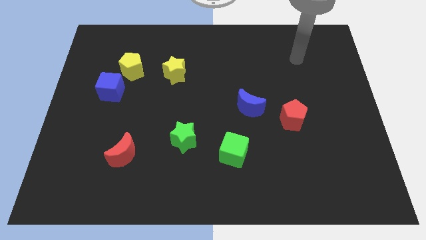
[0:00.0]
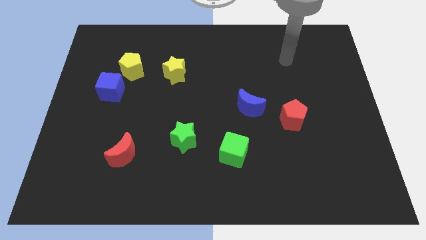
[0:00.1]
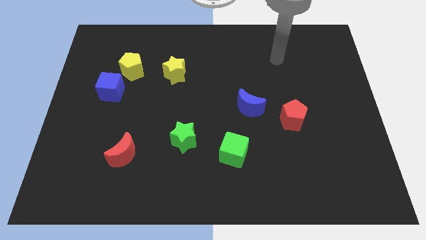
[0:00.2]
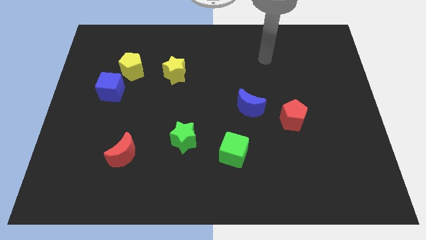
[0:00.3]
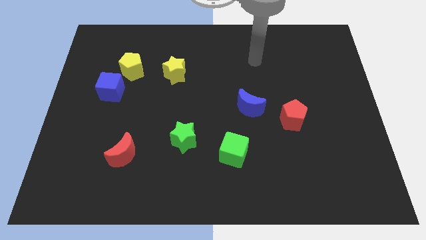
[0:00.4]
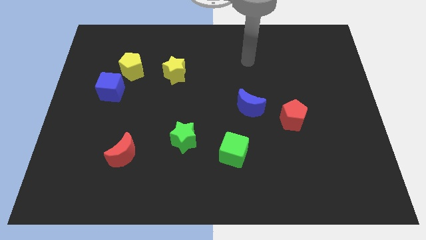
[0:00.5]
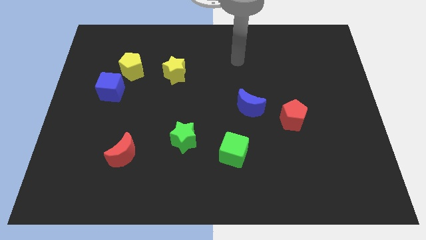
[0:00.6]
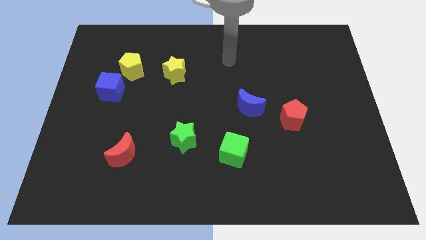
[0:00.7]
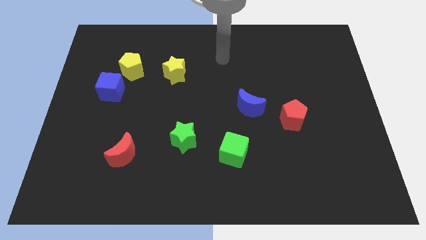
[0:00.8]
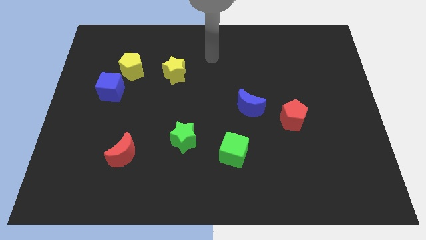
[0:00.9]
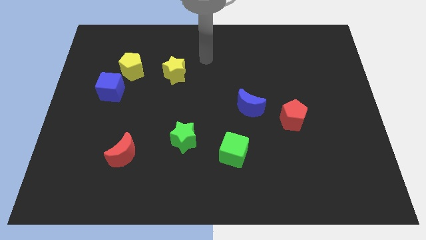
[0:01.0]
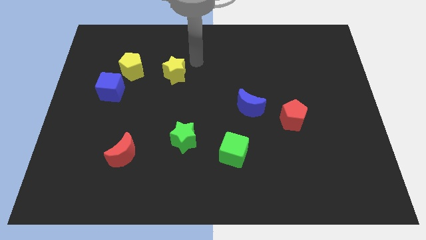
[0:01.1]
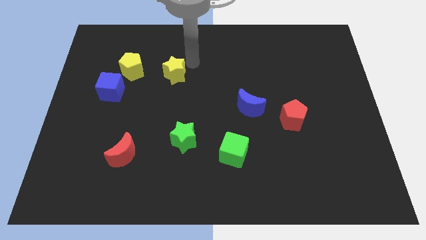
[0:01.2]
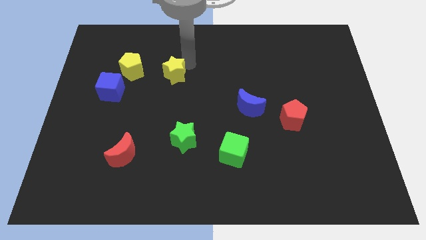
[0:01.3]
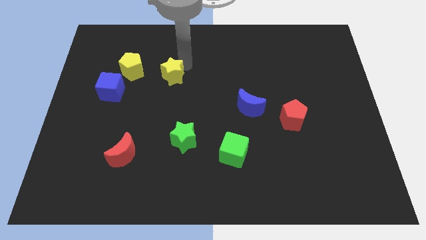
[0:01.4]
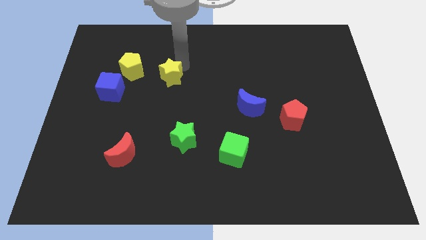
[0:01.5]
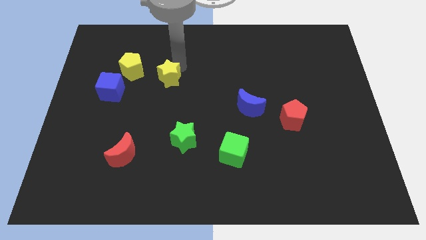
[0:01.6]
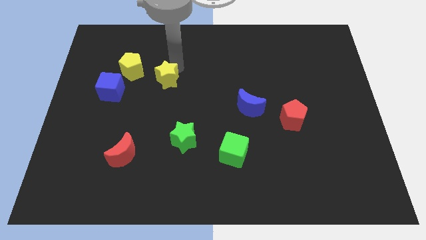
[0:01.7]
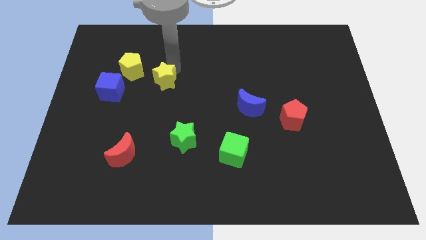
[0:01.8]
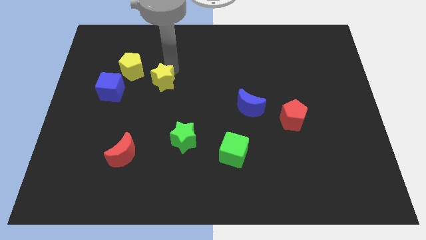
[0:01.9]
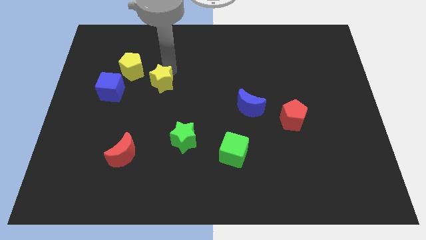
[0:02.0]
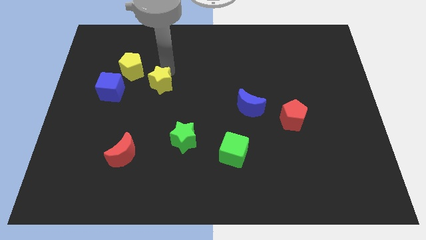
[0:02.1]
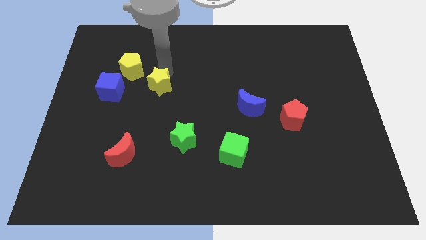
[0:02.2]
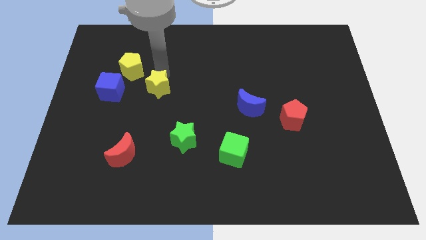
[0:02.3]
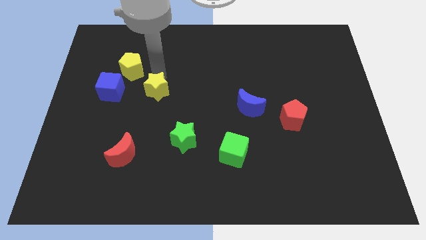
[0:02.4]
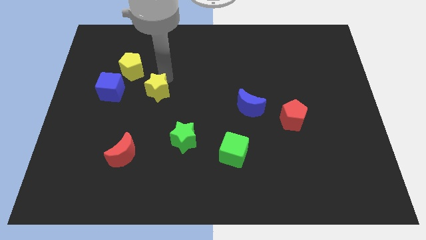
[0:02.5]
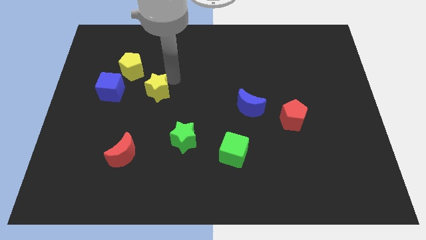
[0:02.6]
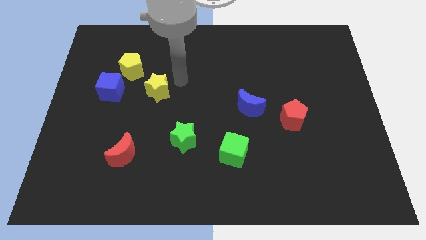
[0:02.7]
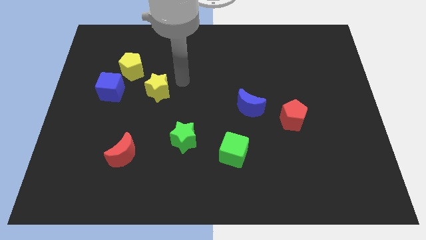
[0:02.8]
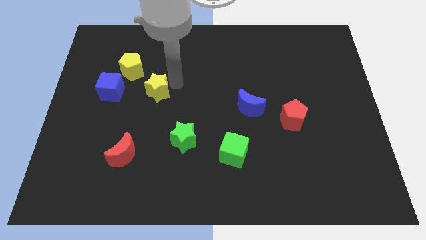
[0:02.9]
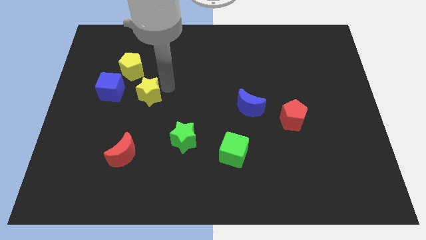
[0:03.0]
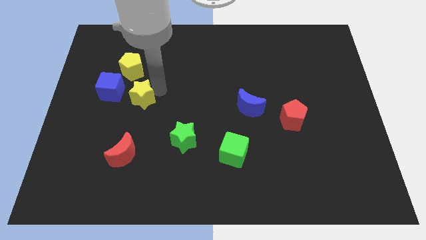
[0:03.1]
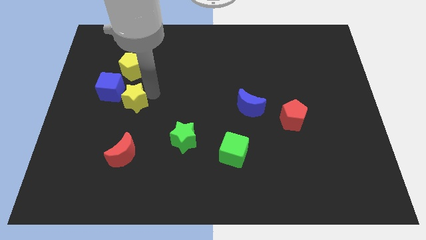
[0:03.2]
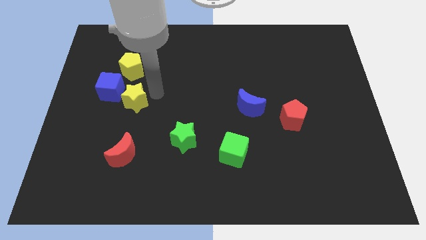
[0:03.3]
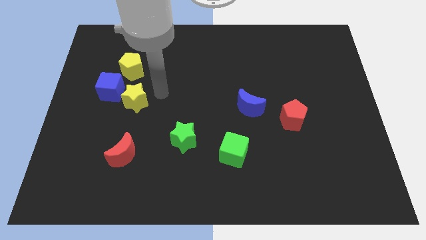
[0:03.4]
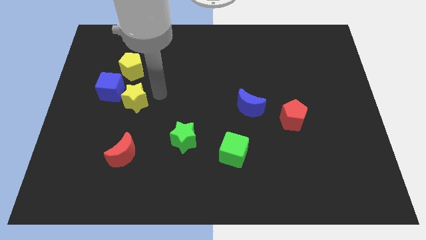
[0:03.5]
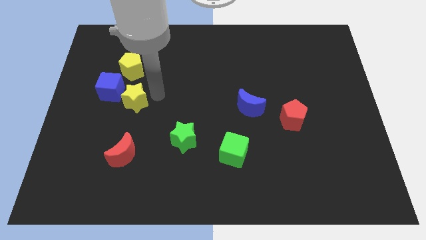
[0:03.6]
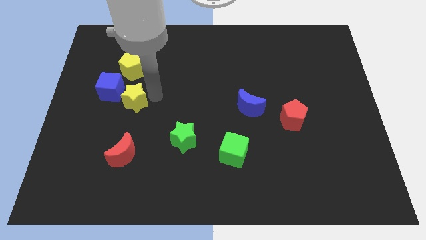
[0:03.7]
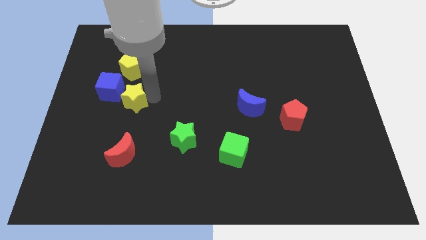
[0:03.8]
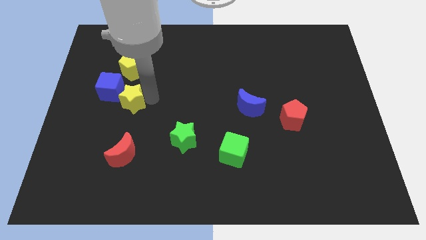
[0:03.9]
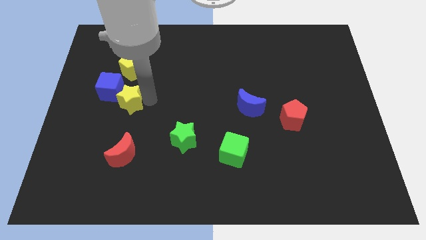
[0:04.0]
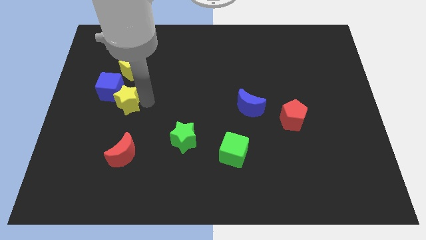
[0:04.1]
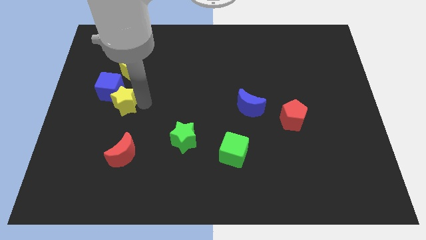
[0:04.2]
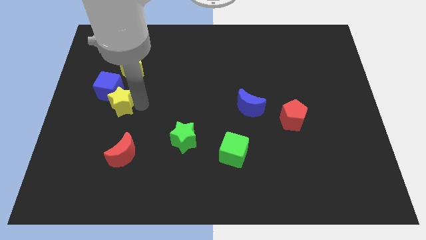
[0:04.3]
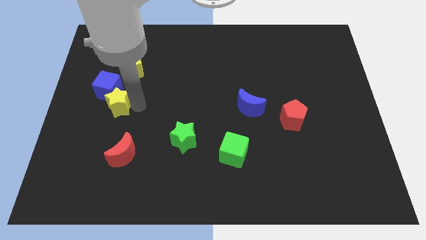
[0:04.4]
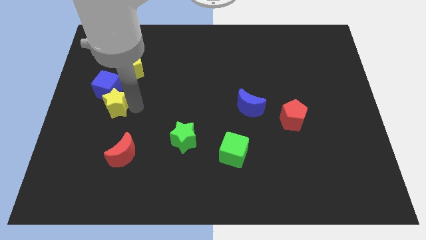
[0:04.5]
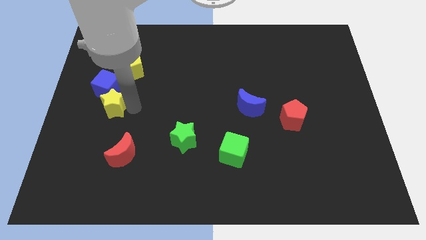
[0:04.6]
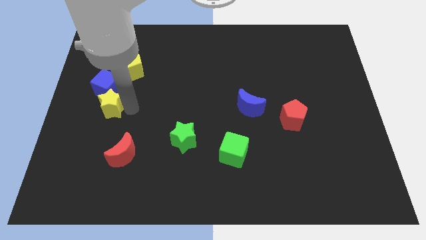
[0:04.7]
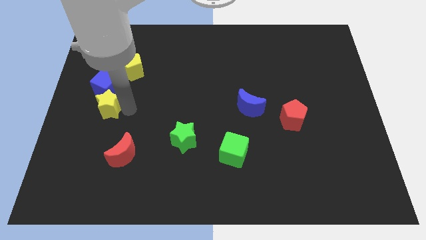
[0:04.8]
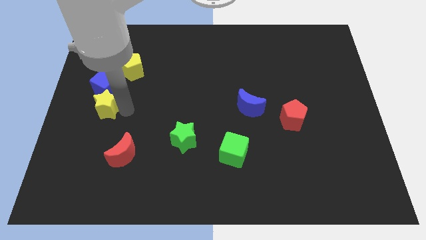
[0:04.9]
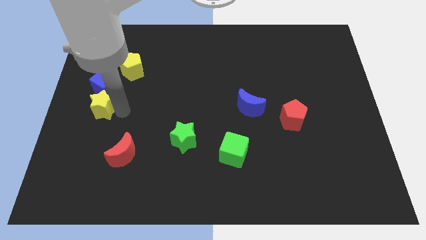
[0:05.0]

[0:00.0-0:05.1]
put the yellow star to the center left

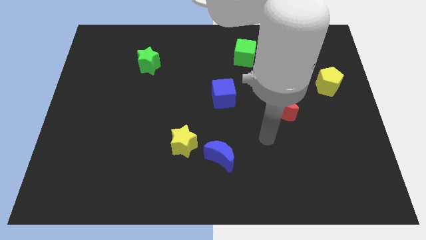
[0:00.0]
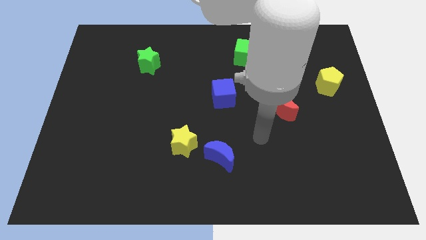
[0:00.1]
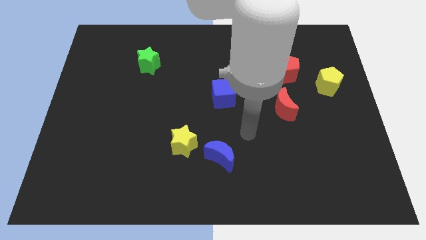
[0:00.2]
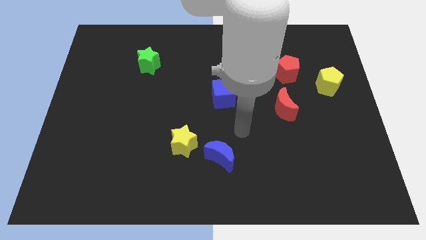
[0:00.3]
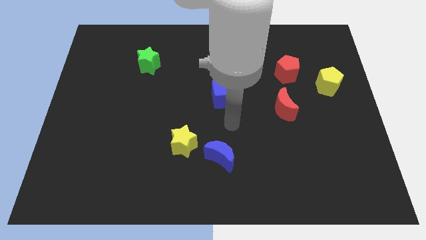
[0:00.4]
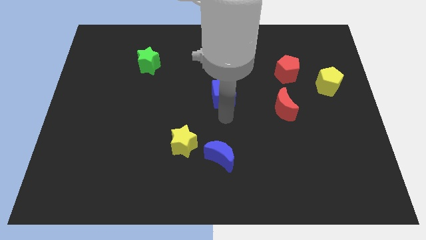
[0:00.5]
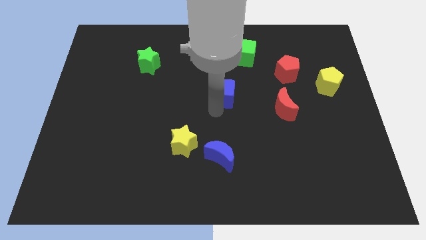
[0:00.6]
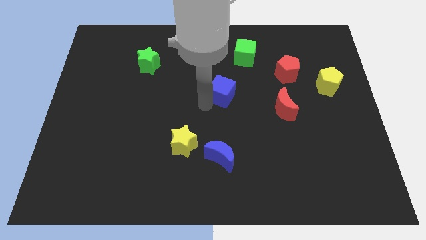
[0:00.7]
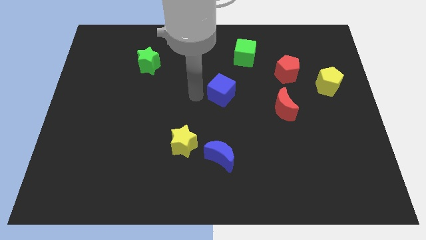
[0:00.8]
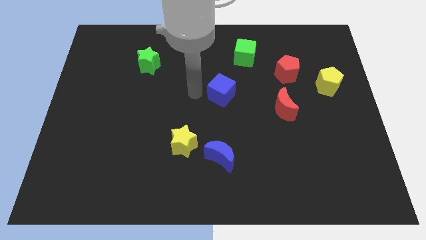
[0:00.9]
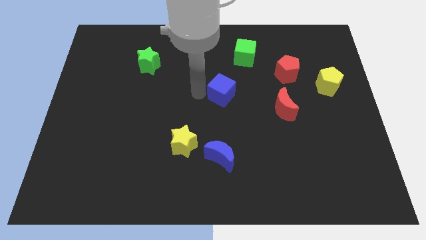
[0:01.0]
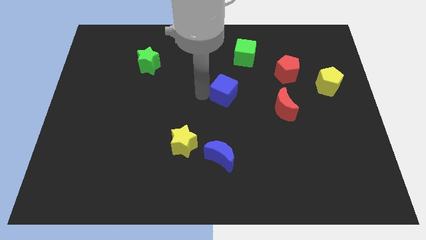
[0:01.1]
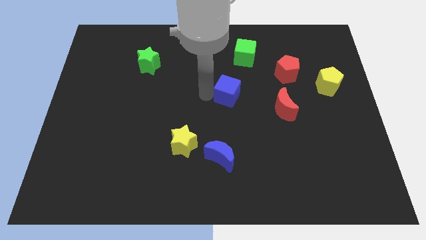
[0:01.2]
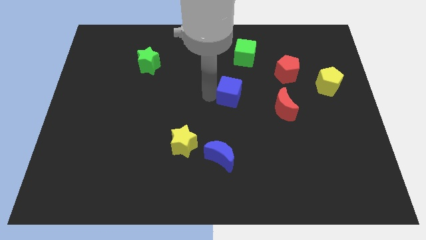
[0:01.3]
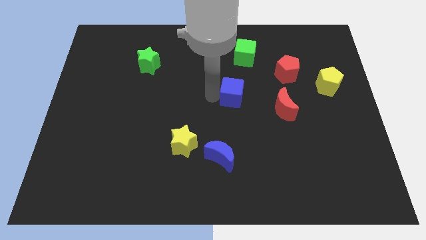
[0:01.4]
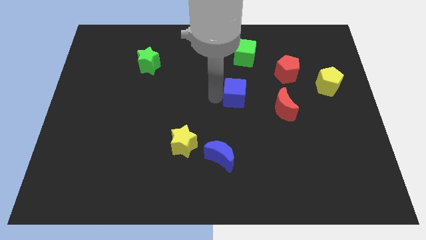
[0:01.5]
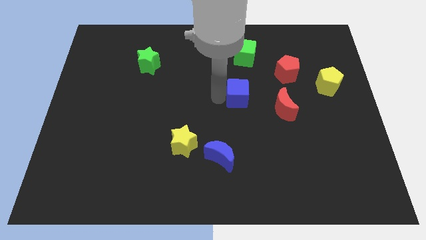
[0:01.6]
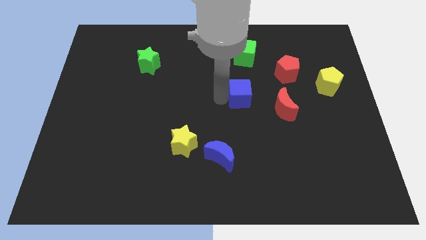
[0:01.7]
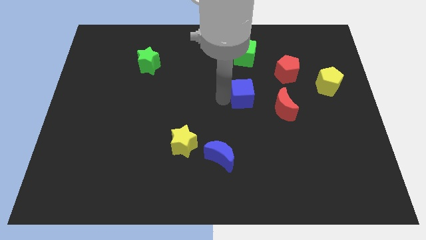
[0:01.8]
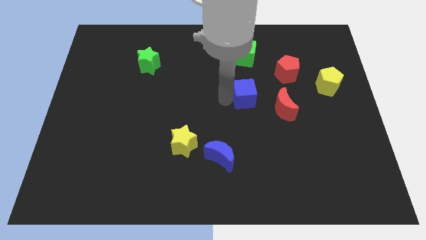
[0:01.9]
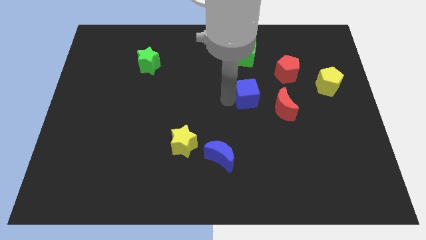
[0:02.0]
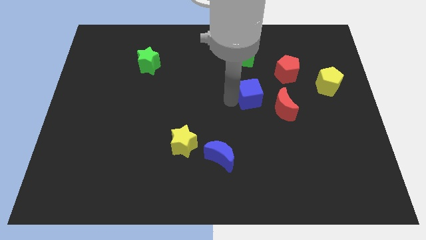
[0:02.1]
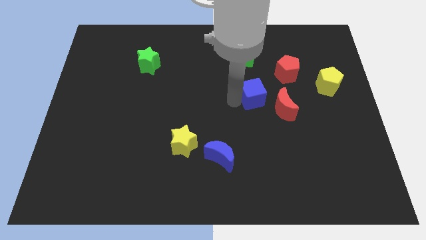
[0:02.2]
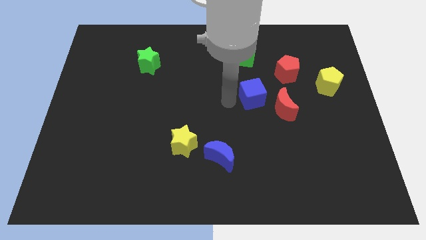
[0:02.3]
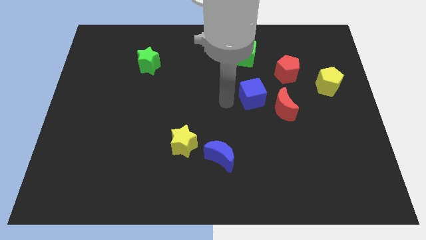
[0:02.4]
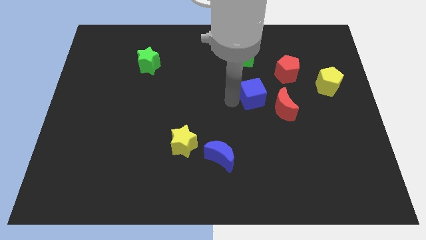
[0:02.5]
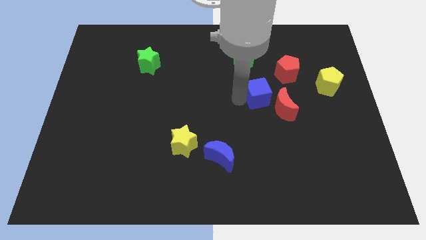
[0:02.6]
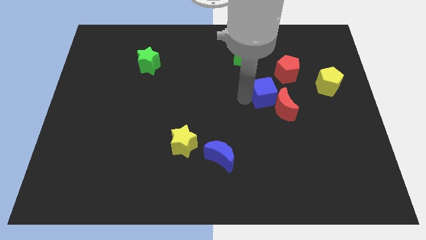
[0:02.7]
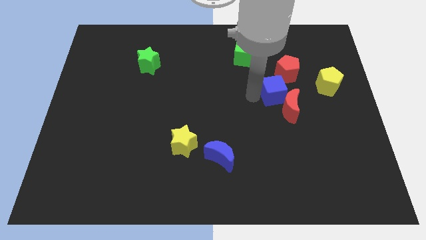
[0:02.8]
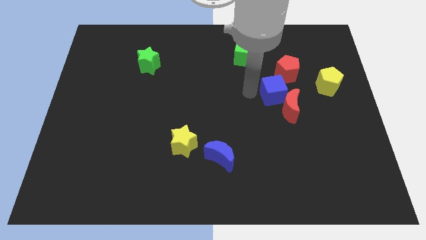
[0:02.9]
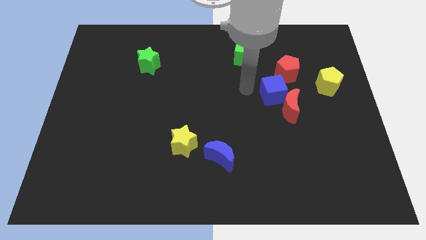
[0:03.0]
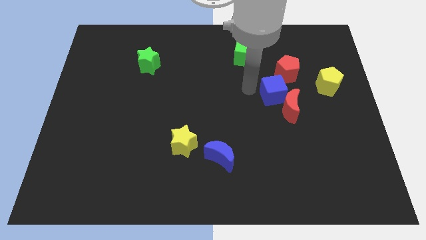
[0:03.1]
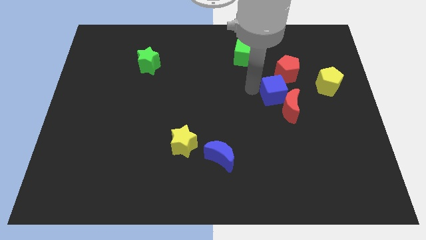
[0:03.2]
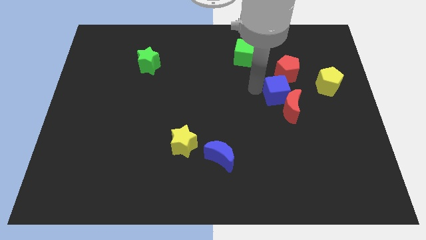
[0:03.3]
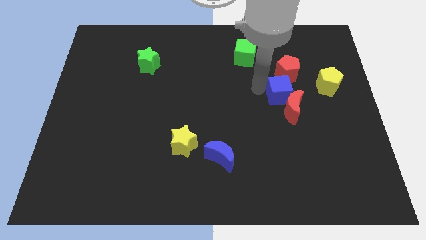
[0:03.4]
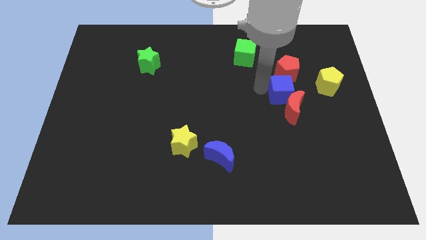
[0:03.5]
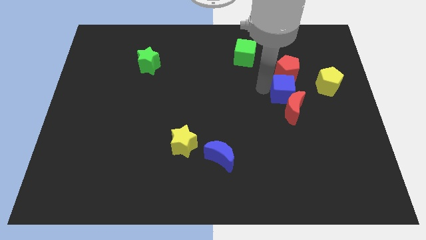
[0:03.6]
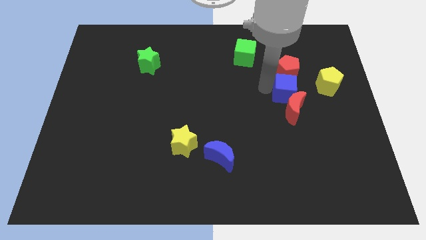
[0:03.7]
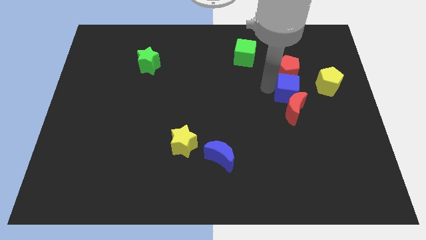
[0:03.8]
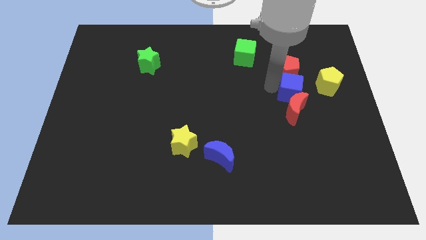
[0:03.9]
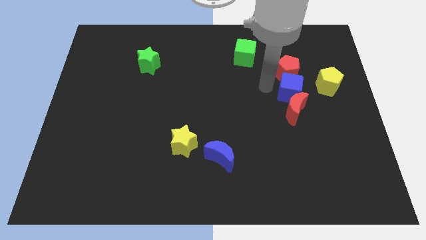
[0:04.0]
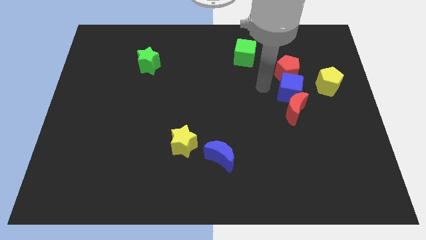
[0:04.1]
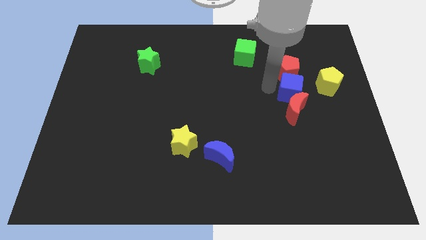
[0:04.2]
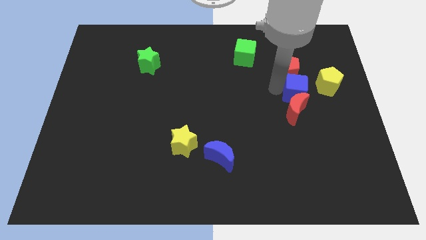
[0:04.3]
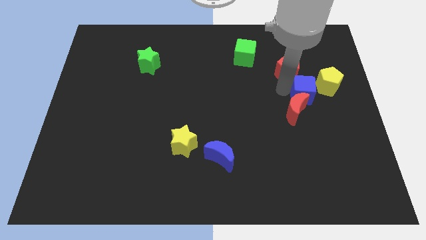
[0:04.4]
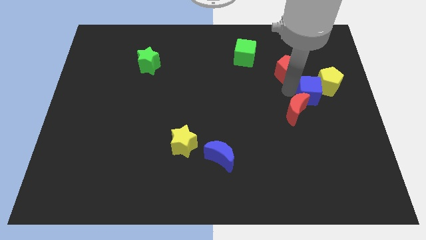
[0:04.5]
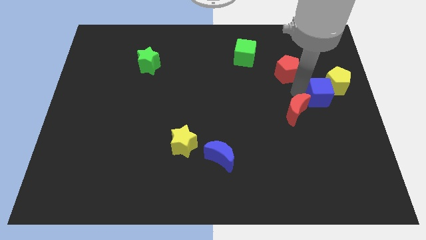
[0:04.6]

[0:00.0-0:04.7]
push the blue cube to the right side
